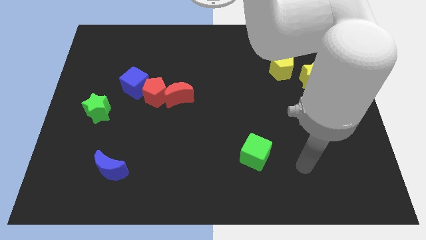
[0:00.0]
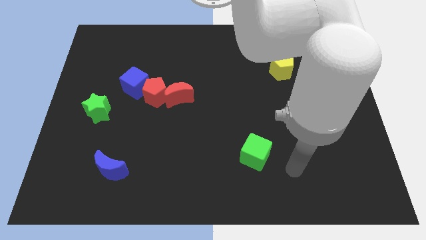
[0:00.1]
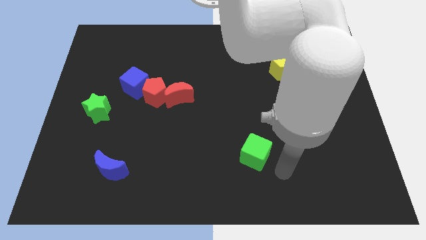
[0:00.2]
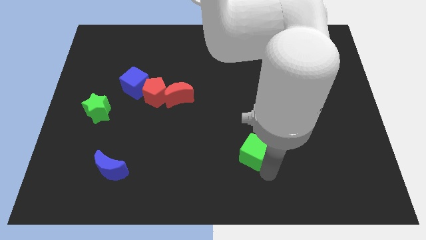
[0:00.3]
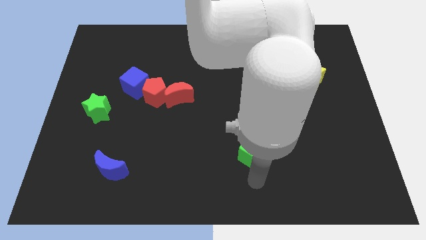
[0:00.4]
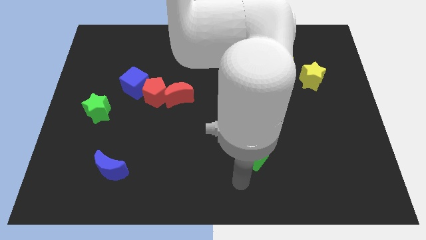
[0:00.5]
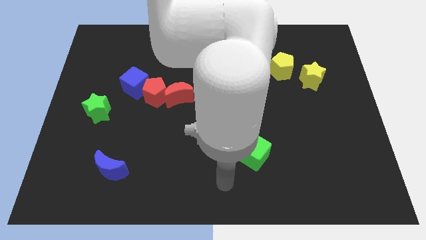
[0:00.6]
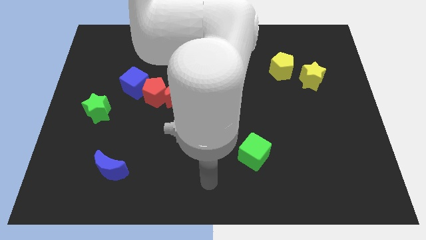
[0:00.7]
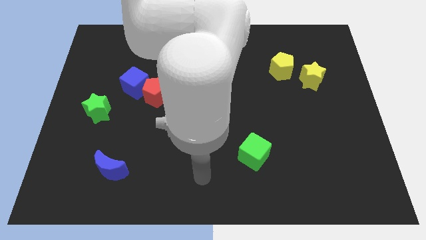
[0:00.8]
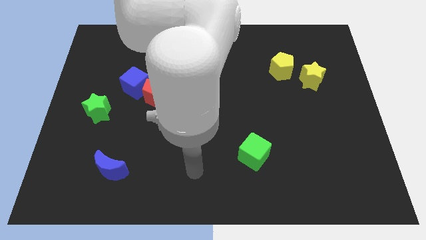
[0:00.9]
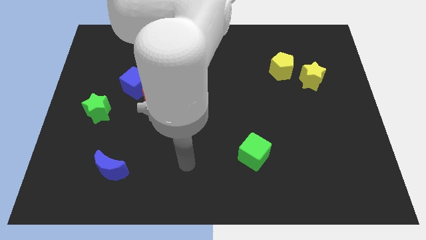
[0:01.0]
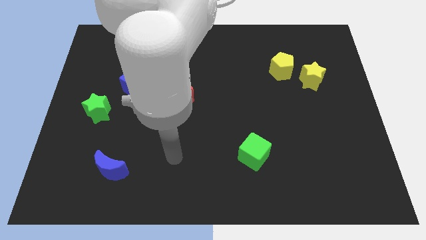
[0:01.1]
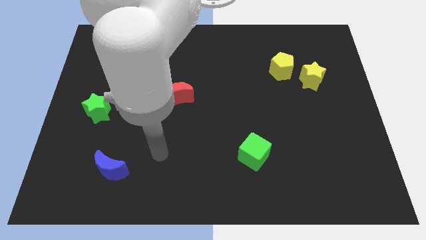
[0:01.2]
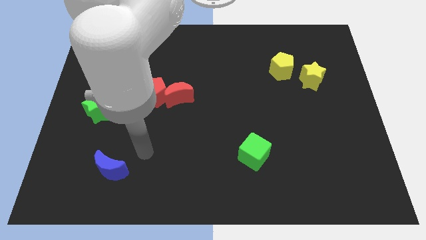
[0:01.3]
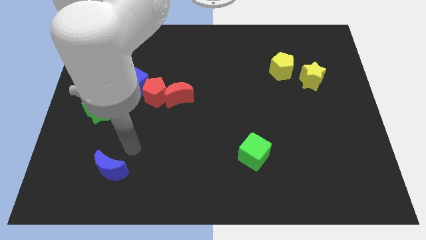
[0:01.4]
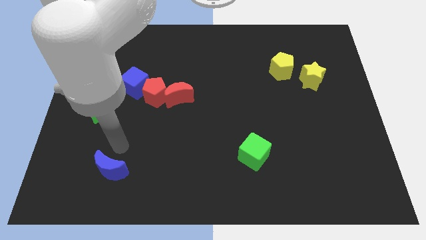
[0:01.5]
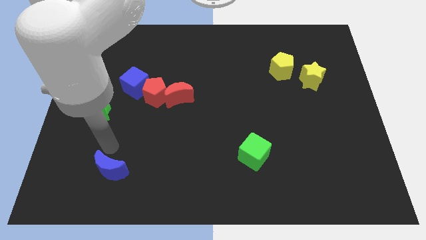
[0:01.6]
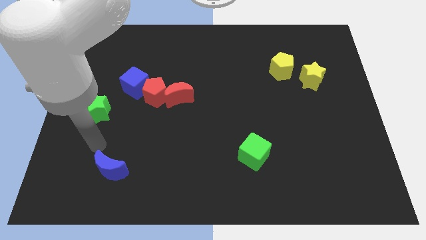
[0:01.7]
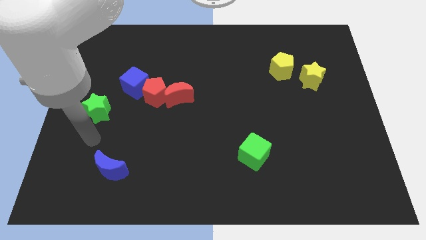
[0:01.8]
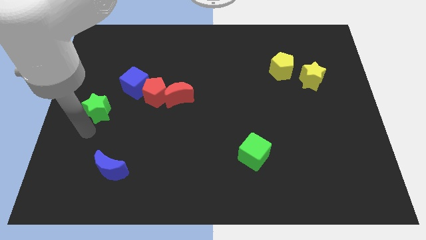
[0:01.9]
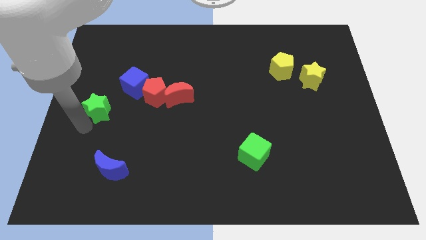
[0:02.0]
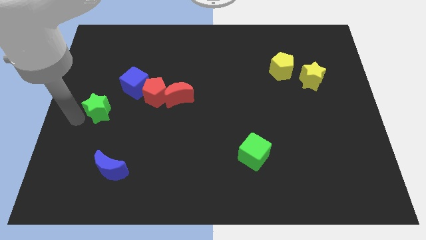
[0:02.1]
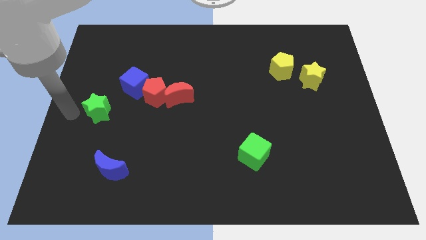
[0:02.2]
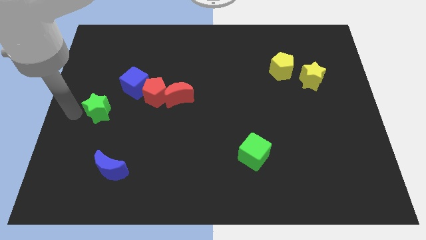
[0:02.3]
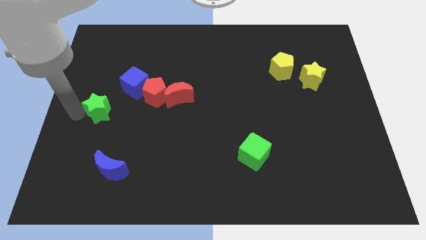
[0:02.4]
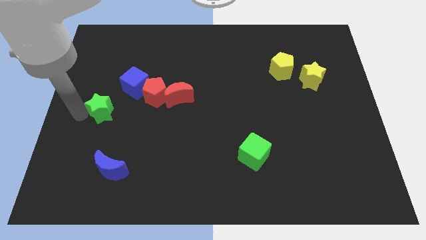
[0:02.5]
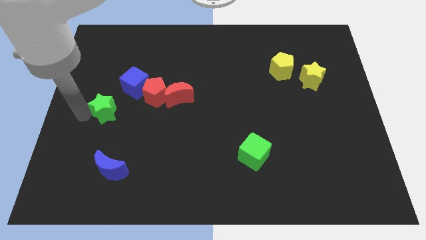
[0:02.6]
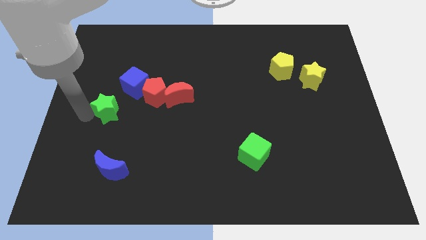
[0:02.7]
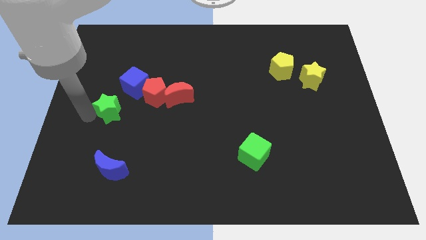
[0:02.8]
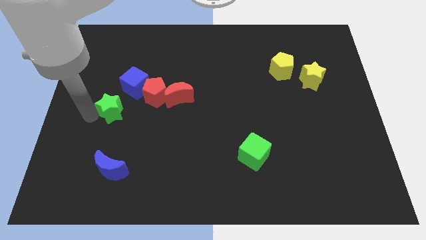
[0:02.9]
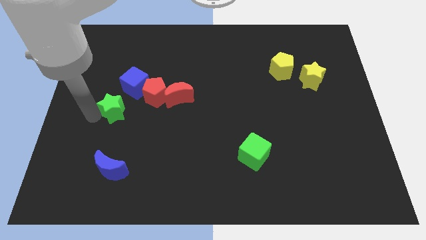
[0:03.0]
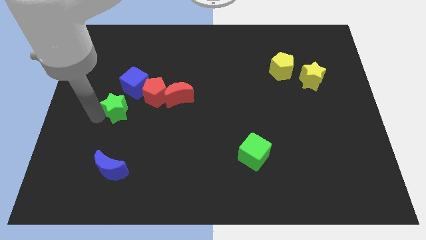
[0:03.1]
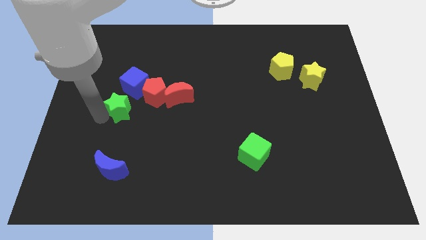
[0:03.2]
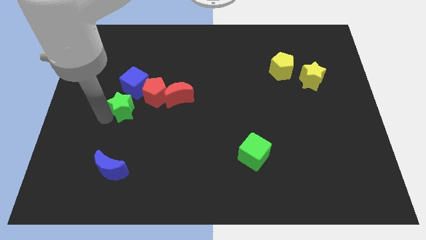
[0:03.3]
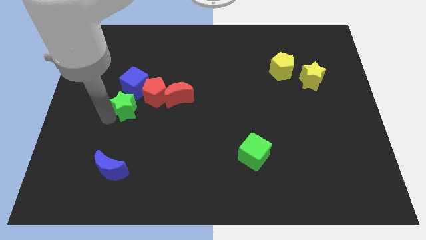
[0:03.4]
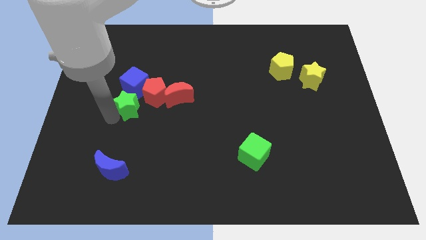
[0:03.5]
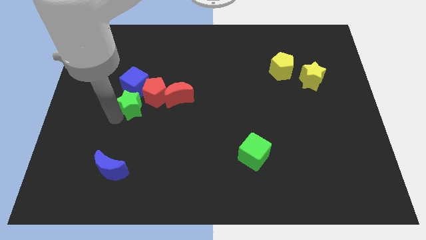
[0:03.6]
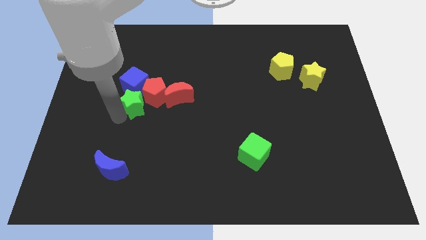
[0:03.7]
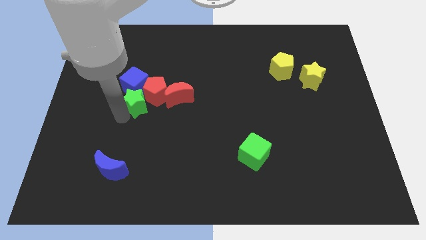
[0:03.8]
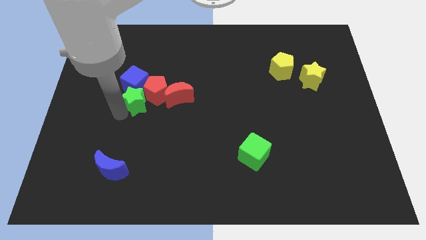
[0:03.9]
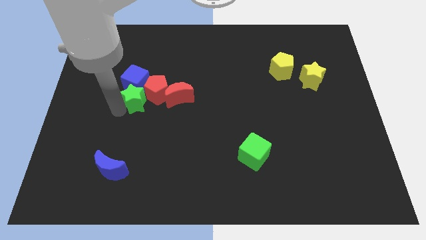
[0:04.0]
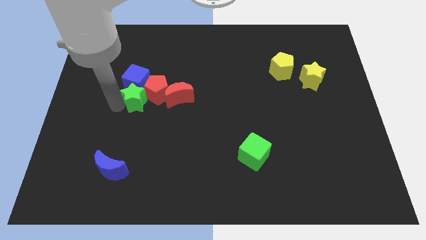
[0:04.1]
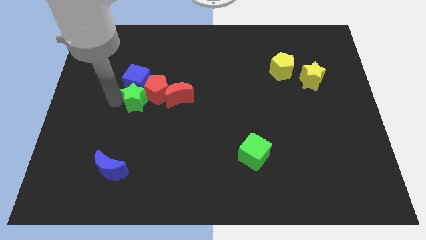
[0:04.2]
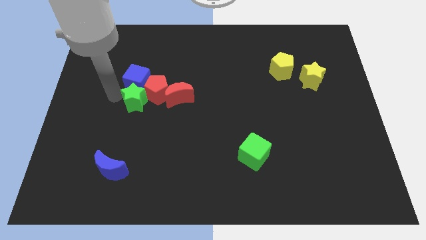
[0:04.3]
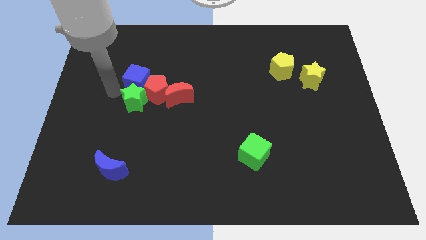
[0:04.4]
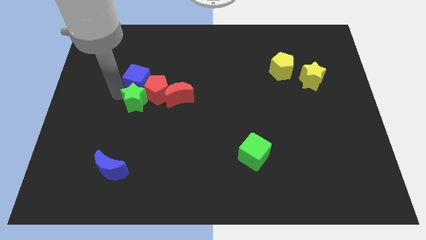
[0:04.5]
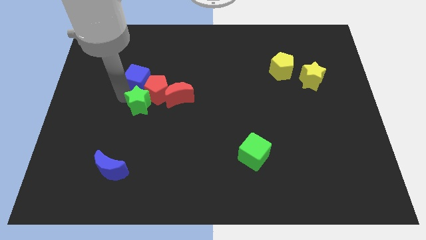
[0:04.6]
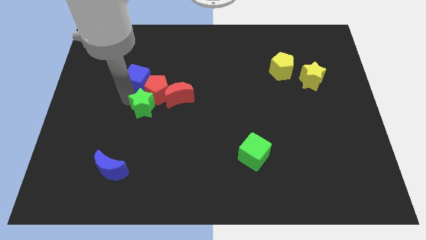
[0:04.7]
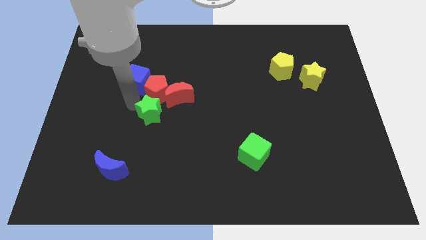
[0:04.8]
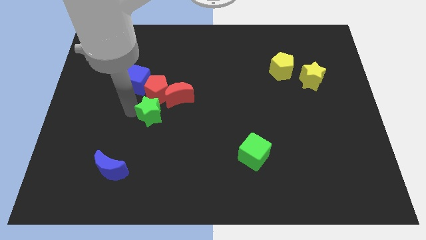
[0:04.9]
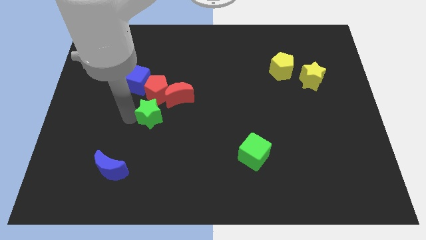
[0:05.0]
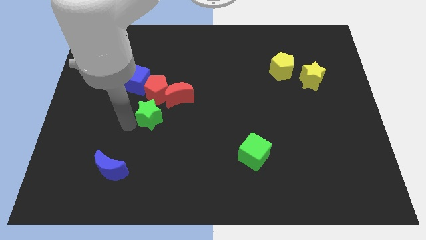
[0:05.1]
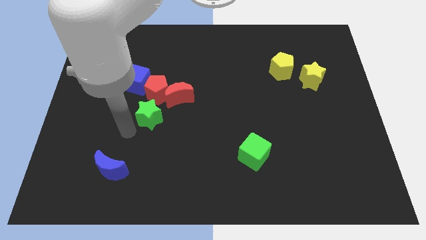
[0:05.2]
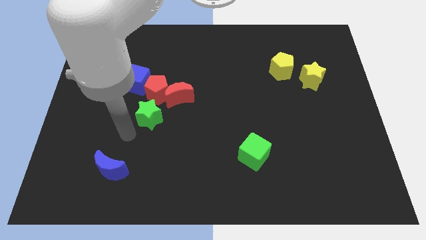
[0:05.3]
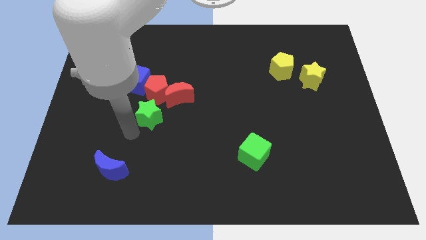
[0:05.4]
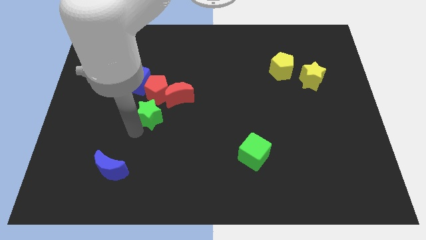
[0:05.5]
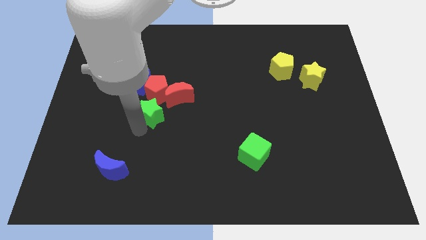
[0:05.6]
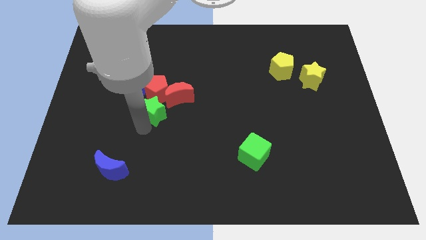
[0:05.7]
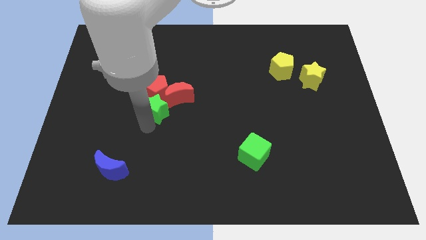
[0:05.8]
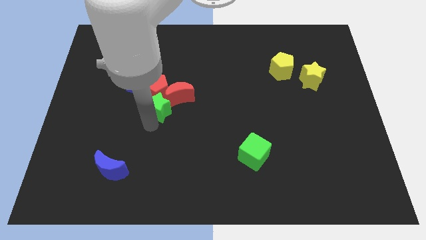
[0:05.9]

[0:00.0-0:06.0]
slide the green star next to the red moon

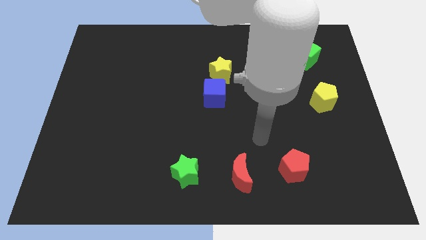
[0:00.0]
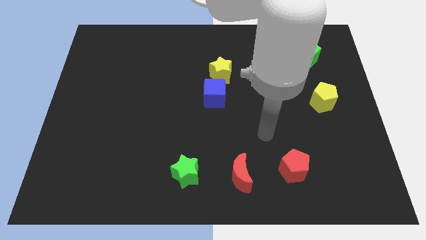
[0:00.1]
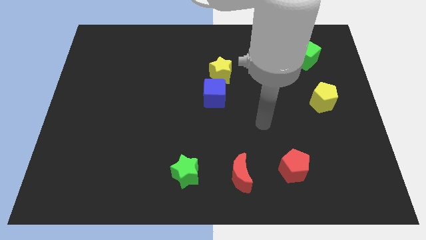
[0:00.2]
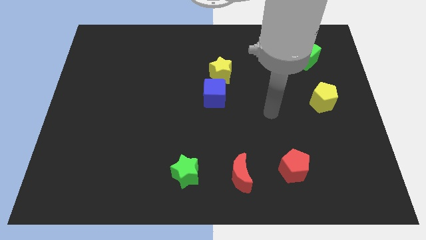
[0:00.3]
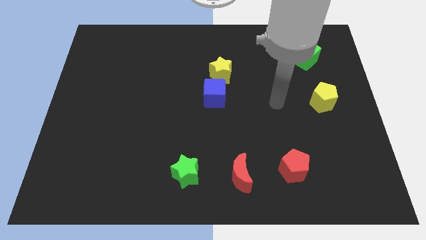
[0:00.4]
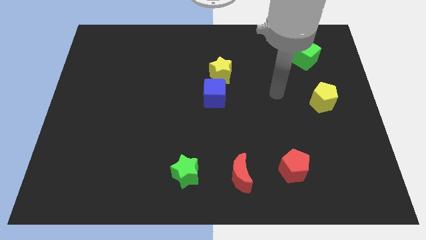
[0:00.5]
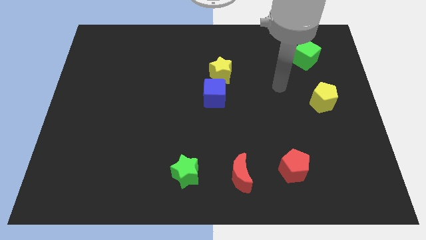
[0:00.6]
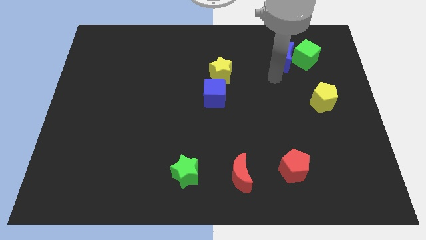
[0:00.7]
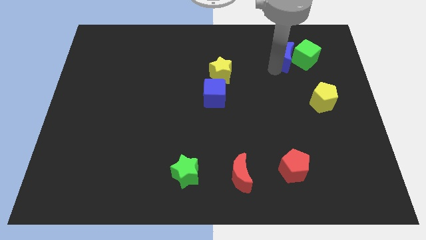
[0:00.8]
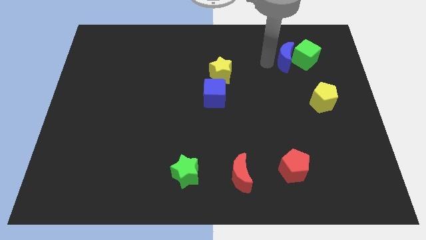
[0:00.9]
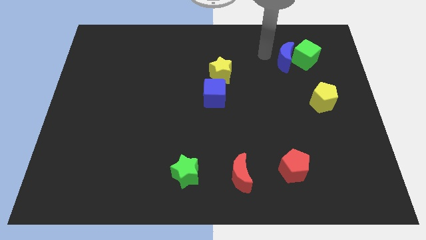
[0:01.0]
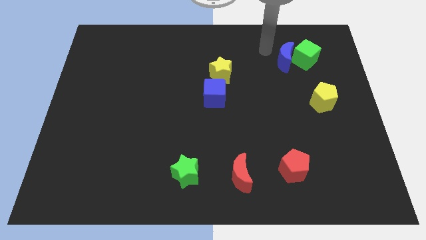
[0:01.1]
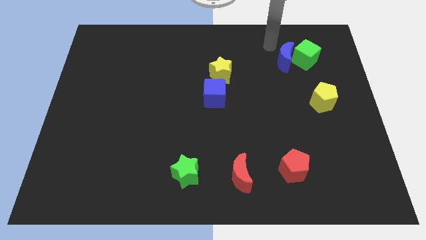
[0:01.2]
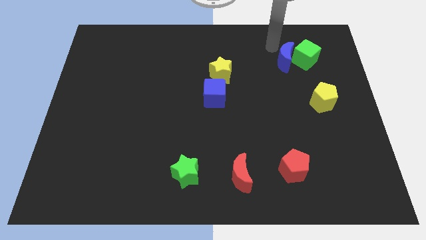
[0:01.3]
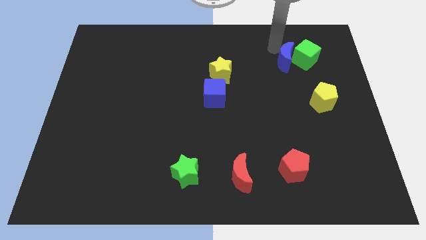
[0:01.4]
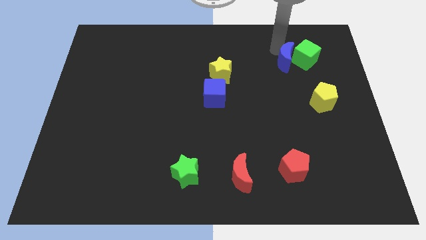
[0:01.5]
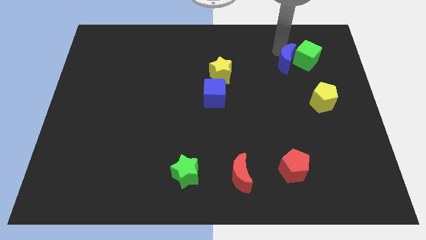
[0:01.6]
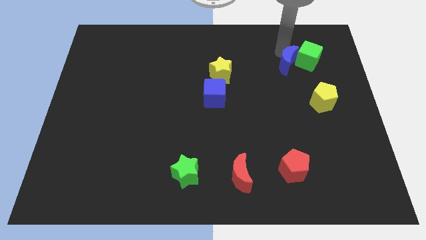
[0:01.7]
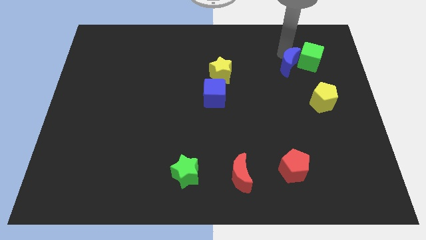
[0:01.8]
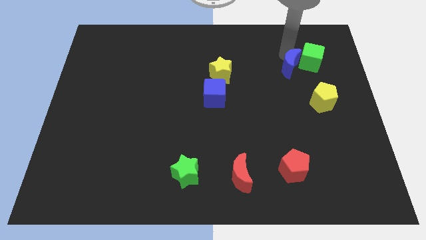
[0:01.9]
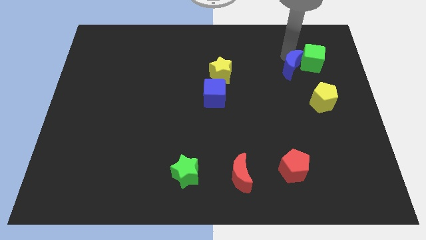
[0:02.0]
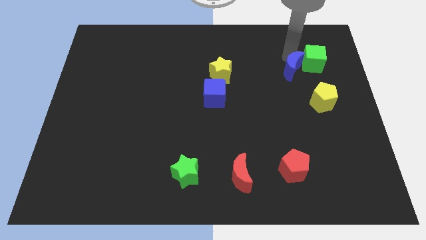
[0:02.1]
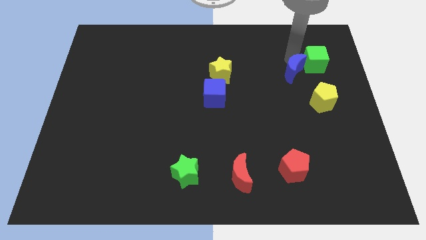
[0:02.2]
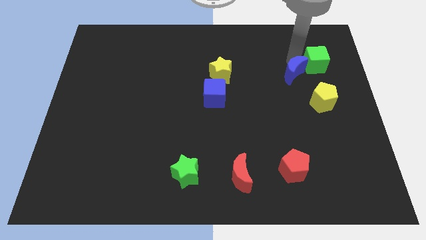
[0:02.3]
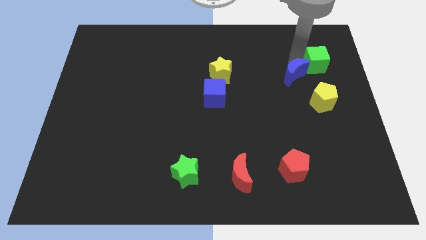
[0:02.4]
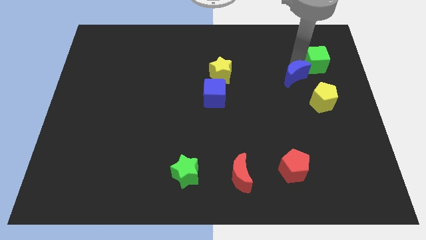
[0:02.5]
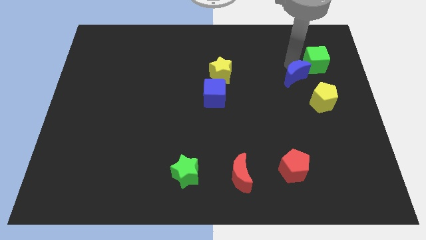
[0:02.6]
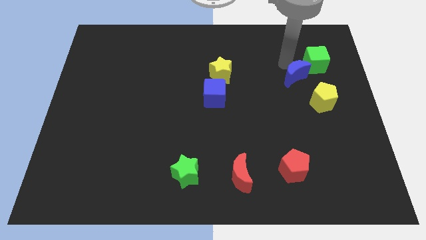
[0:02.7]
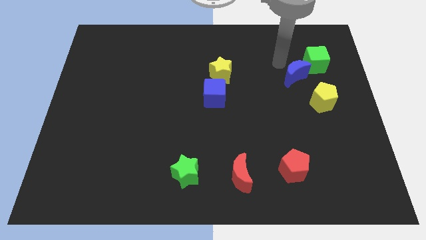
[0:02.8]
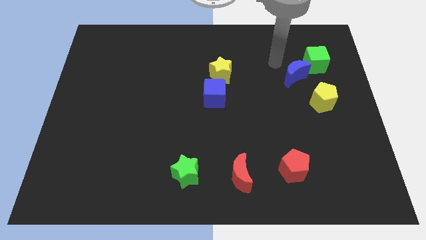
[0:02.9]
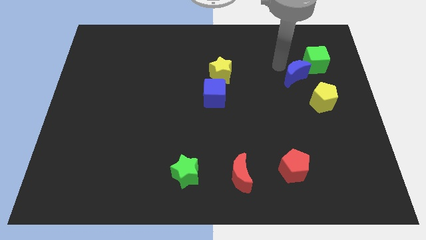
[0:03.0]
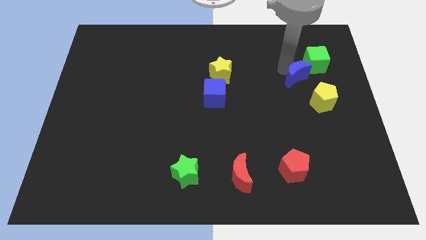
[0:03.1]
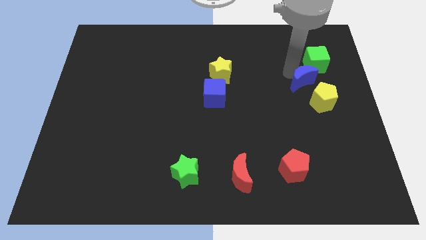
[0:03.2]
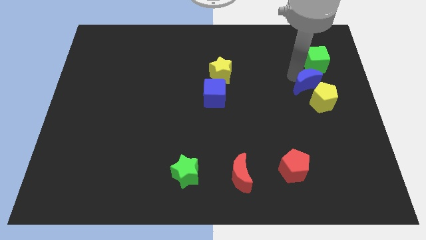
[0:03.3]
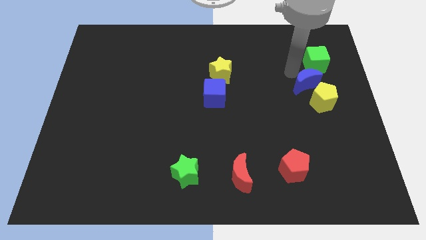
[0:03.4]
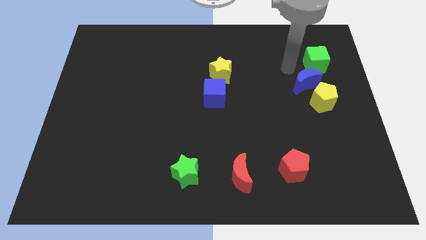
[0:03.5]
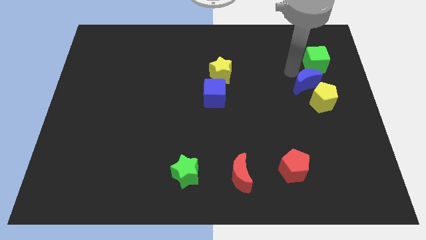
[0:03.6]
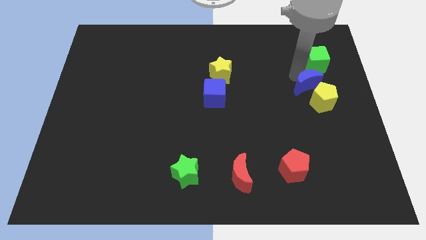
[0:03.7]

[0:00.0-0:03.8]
move the blue moon to the yellow pentagon
